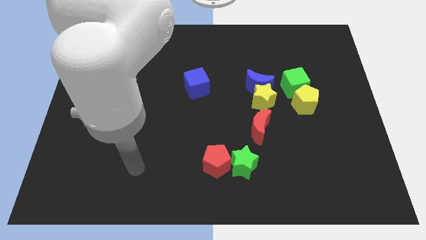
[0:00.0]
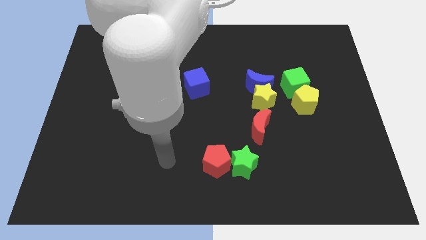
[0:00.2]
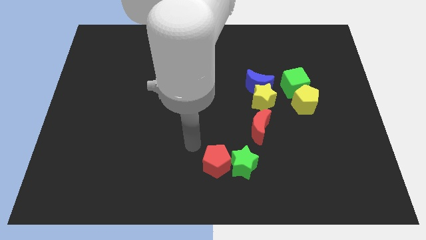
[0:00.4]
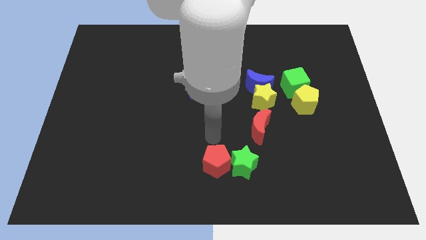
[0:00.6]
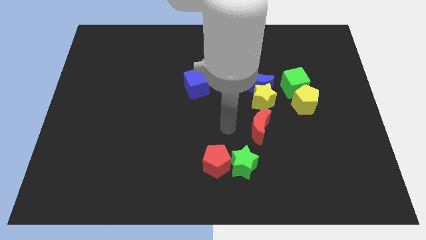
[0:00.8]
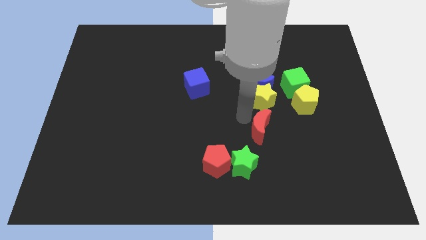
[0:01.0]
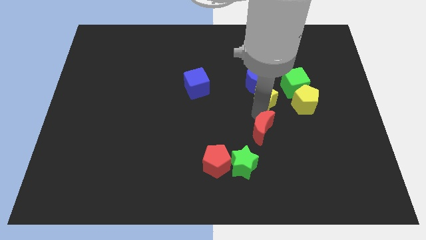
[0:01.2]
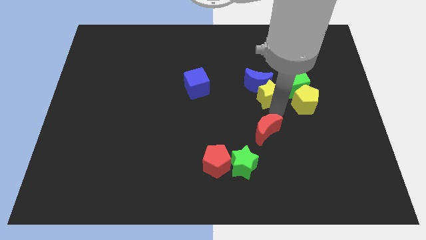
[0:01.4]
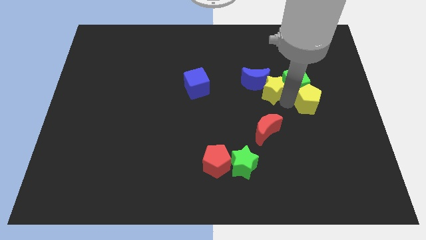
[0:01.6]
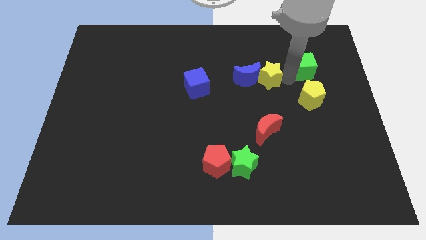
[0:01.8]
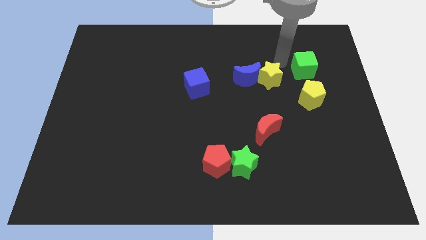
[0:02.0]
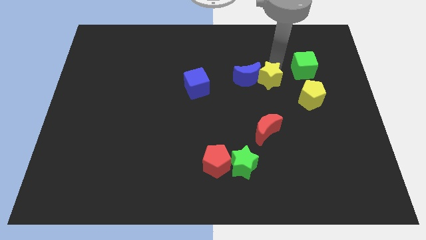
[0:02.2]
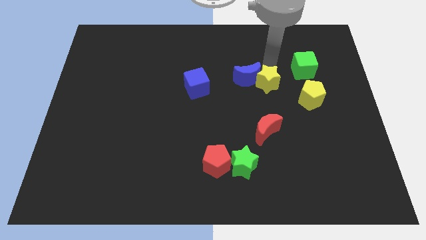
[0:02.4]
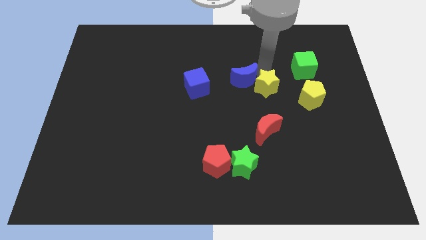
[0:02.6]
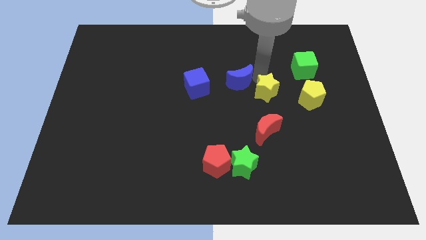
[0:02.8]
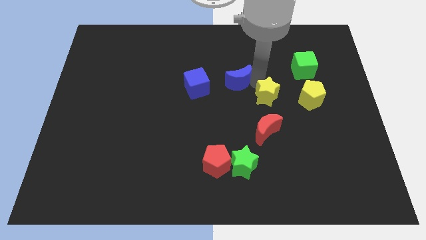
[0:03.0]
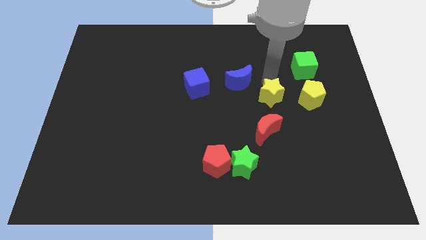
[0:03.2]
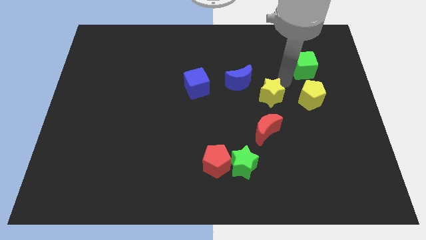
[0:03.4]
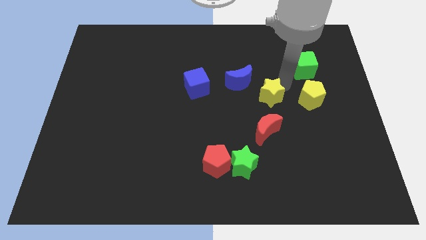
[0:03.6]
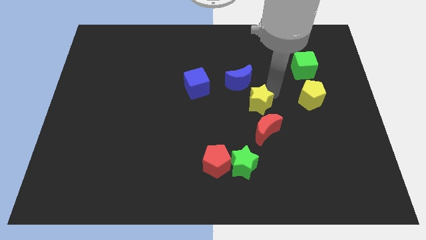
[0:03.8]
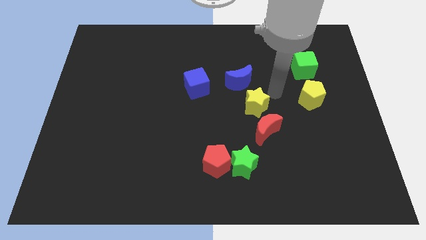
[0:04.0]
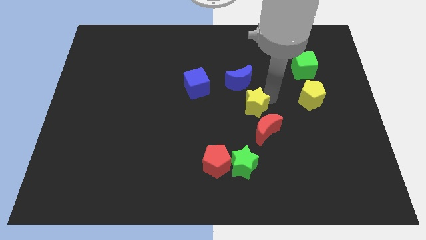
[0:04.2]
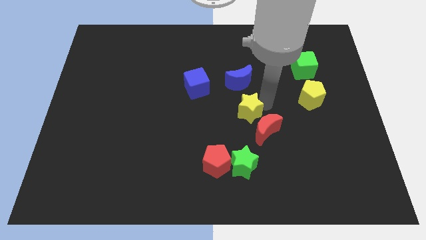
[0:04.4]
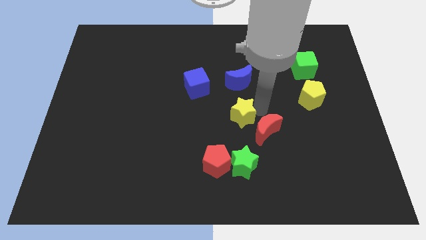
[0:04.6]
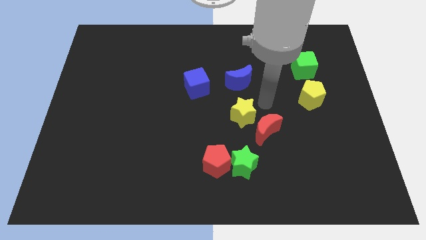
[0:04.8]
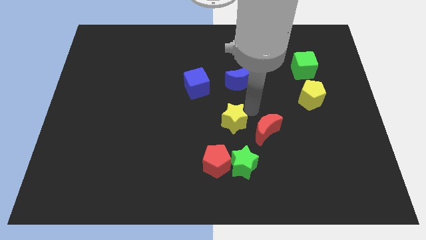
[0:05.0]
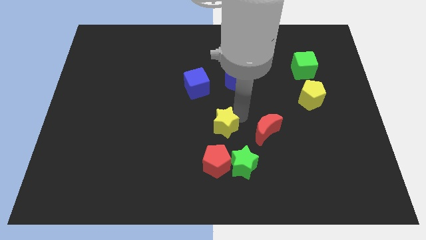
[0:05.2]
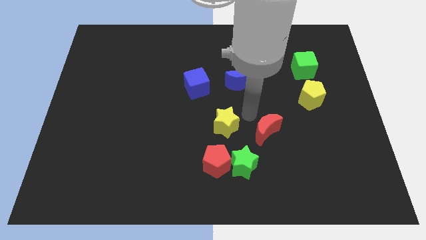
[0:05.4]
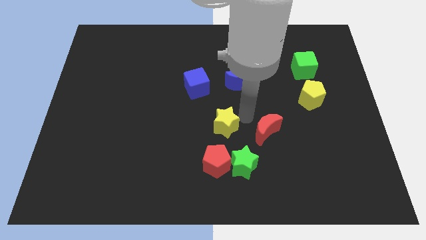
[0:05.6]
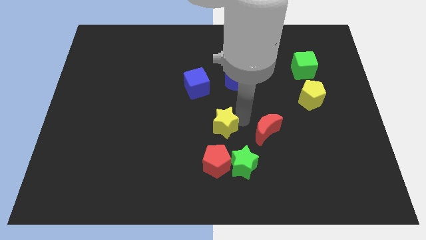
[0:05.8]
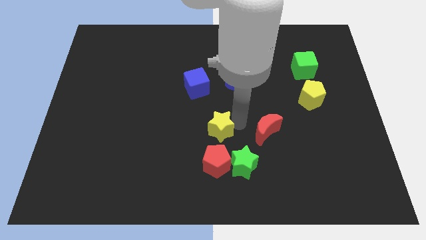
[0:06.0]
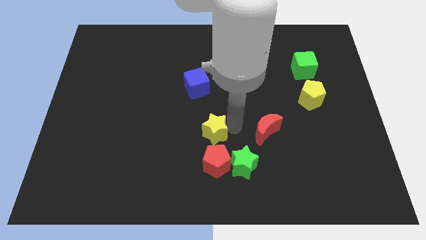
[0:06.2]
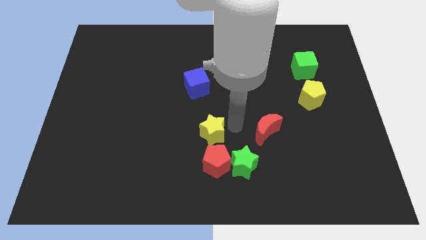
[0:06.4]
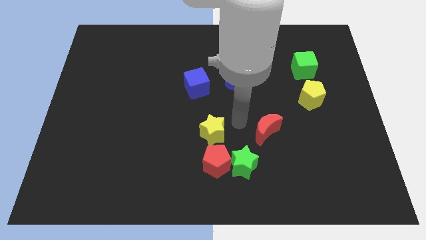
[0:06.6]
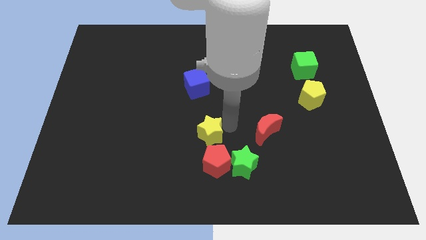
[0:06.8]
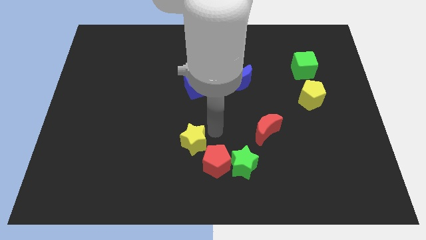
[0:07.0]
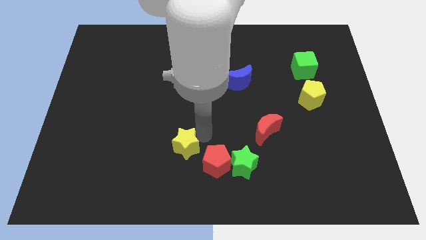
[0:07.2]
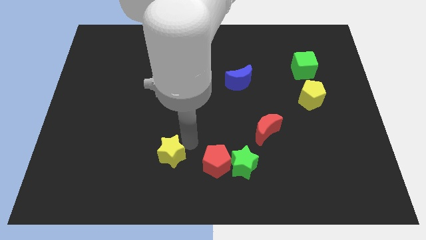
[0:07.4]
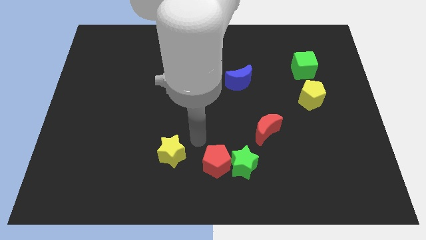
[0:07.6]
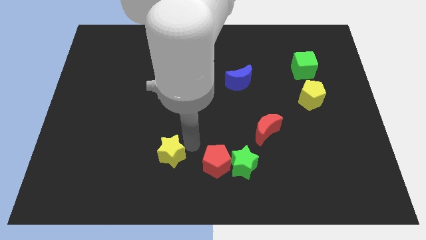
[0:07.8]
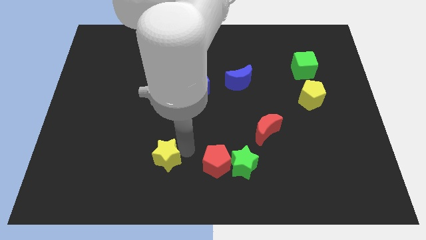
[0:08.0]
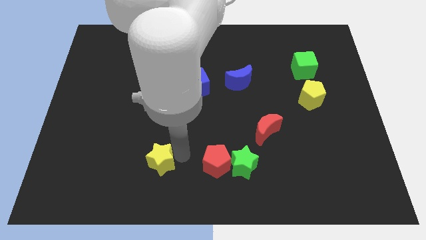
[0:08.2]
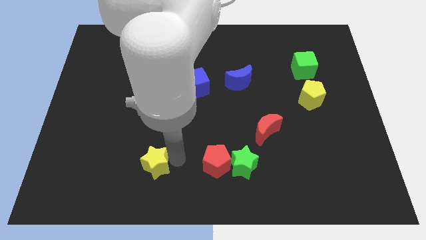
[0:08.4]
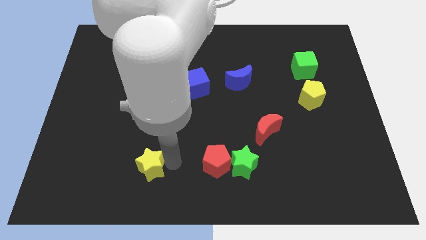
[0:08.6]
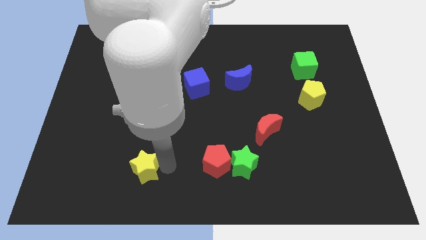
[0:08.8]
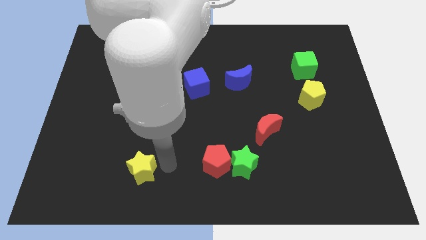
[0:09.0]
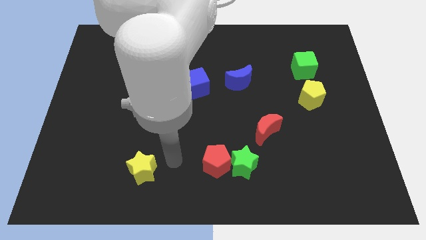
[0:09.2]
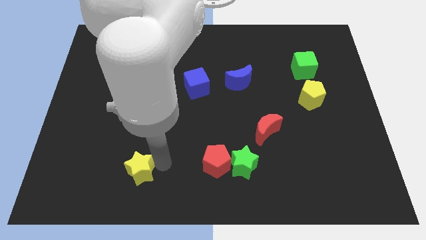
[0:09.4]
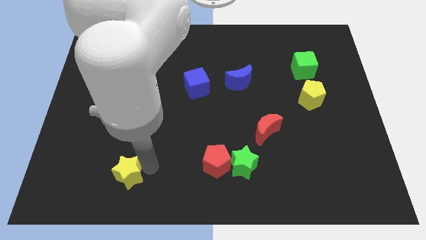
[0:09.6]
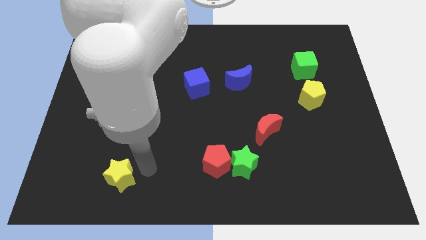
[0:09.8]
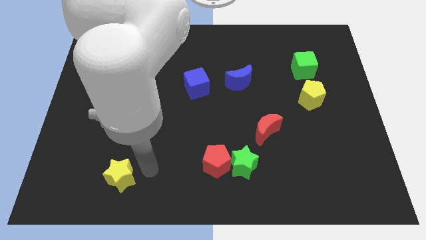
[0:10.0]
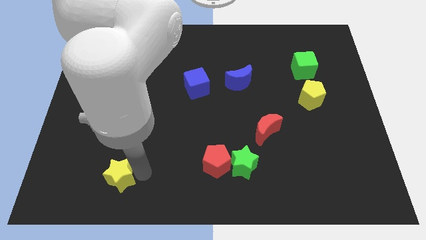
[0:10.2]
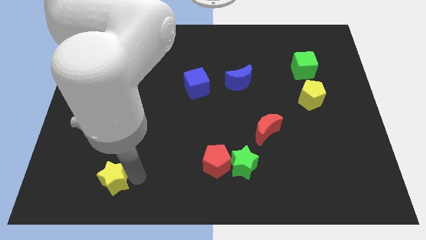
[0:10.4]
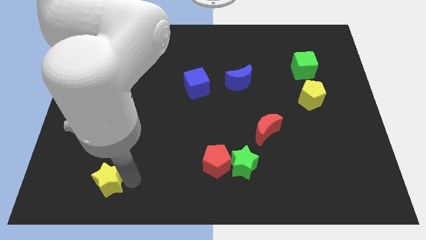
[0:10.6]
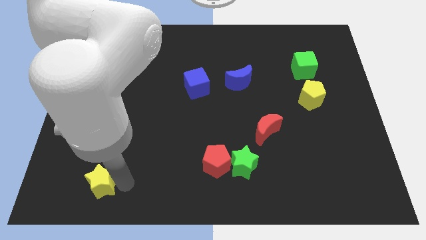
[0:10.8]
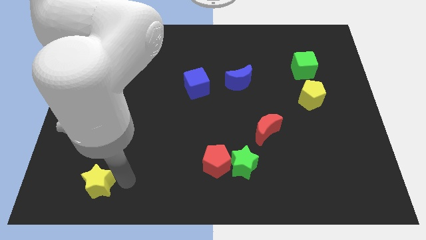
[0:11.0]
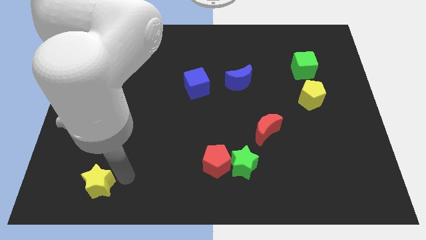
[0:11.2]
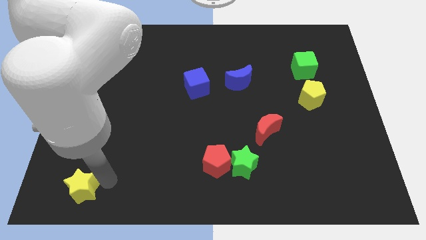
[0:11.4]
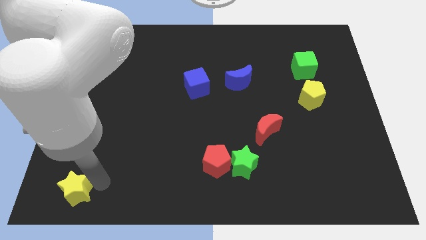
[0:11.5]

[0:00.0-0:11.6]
slide the yellow star to the bottom left corner
